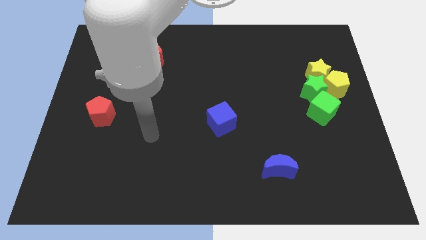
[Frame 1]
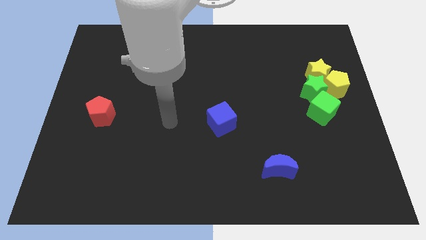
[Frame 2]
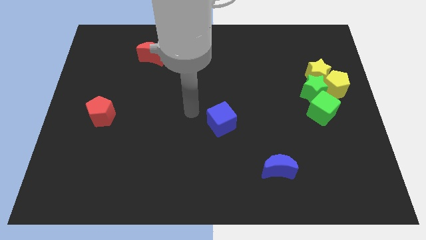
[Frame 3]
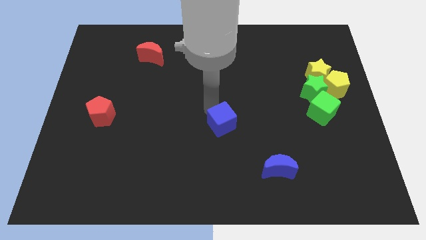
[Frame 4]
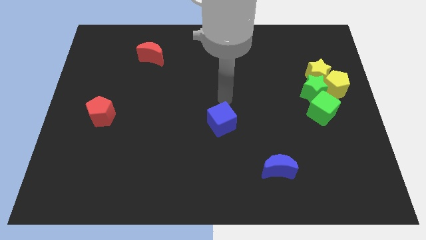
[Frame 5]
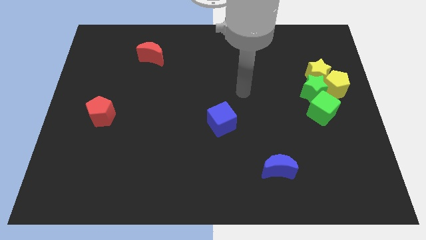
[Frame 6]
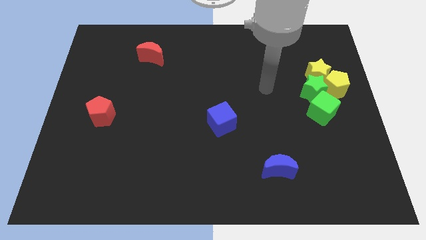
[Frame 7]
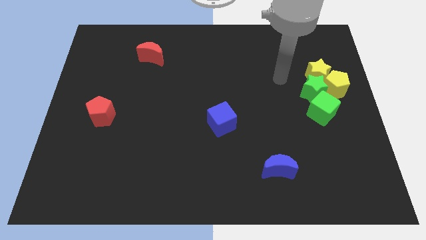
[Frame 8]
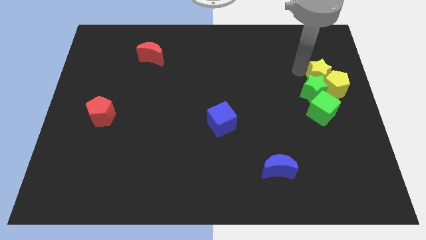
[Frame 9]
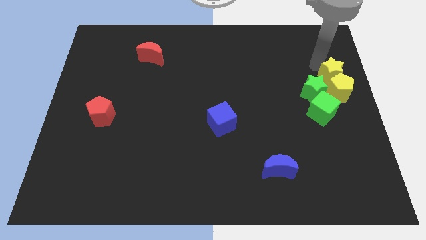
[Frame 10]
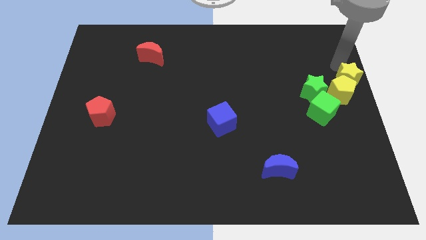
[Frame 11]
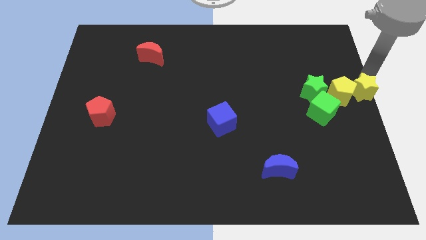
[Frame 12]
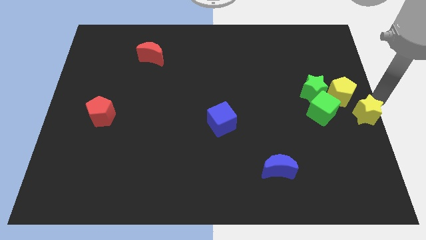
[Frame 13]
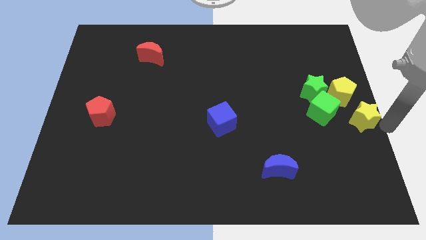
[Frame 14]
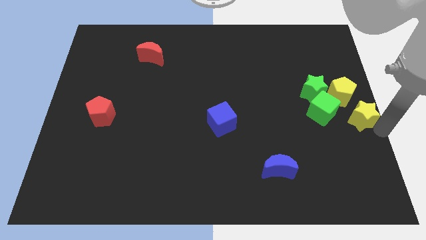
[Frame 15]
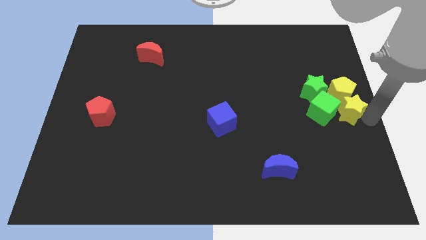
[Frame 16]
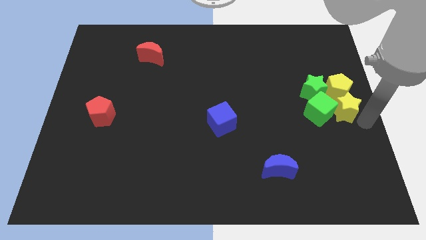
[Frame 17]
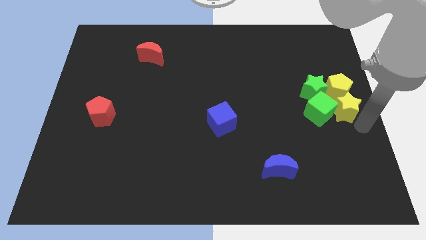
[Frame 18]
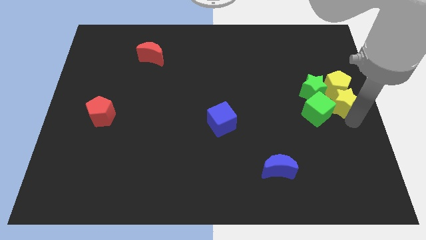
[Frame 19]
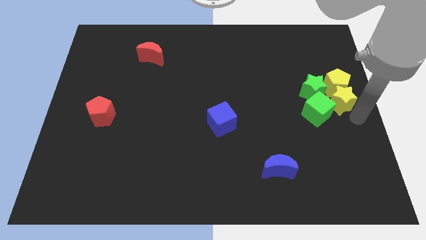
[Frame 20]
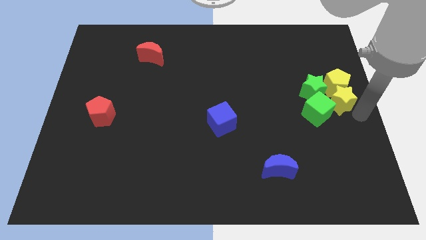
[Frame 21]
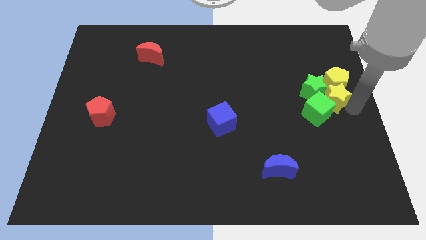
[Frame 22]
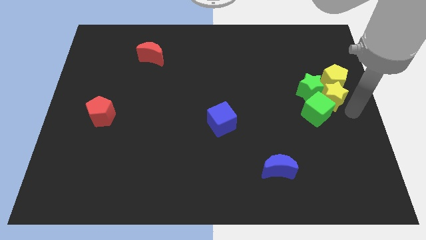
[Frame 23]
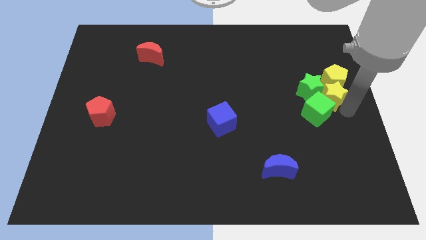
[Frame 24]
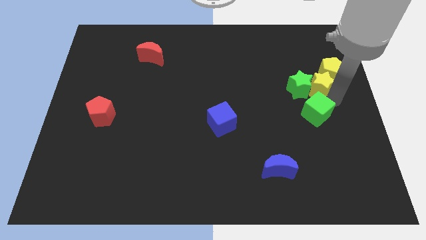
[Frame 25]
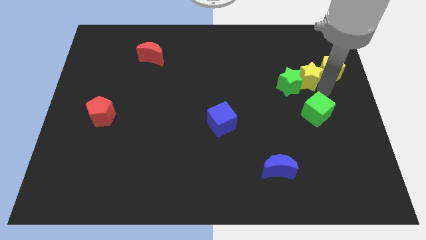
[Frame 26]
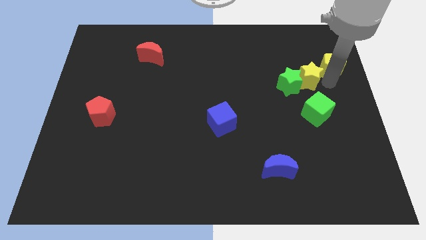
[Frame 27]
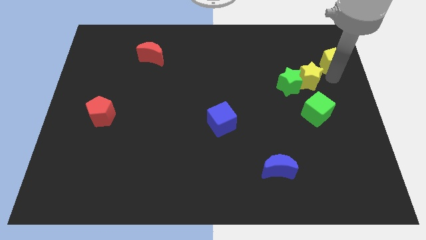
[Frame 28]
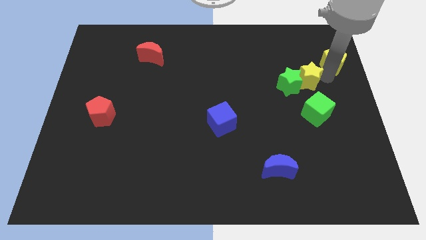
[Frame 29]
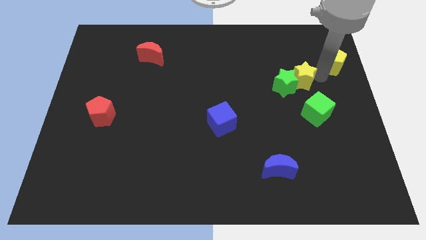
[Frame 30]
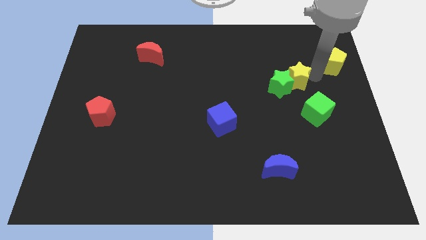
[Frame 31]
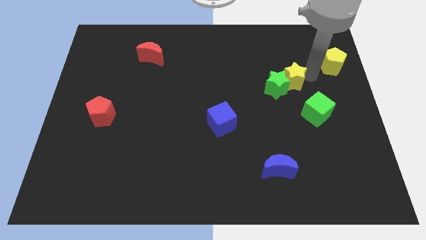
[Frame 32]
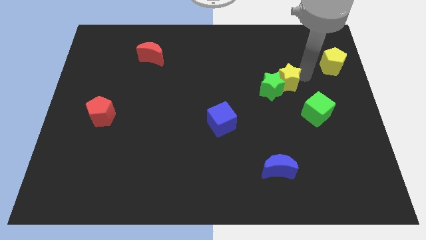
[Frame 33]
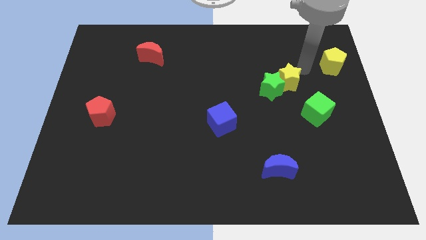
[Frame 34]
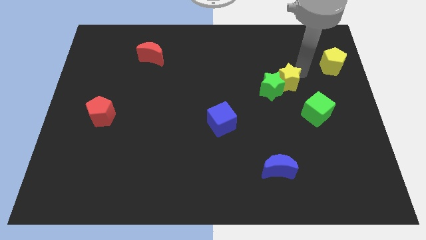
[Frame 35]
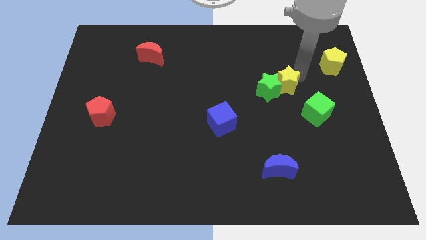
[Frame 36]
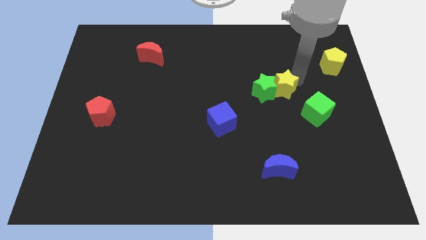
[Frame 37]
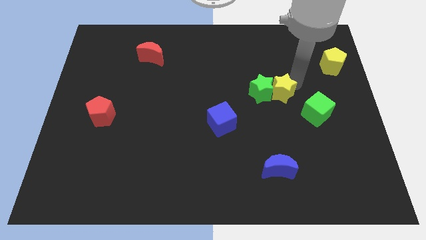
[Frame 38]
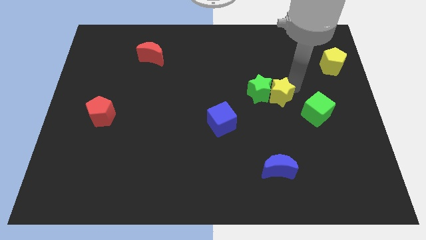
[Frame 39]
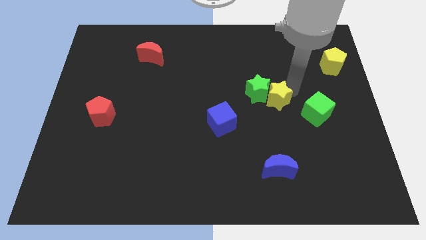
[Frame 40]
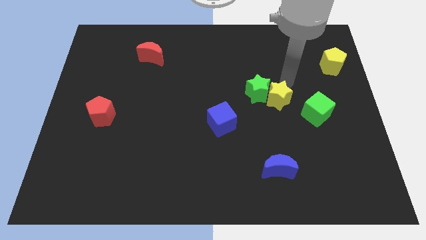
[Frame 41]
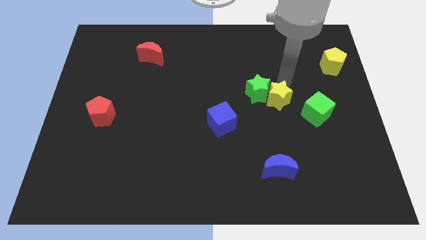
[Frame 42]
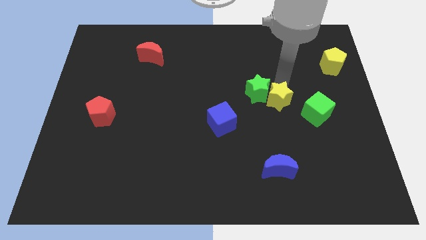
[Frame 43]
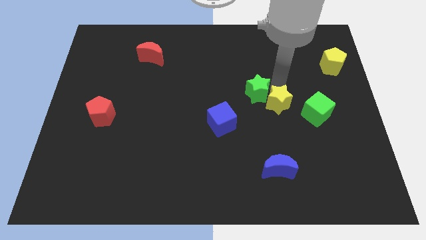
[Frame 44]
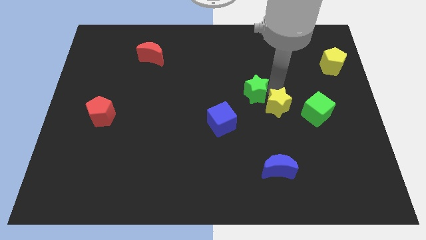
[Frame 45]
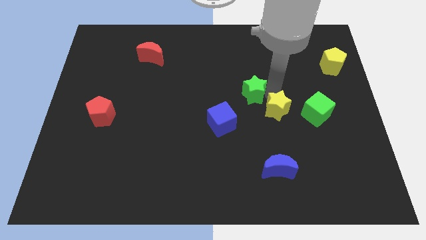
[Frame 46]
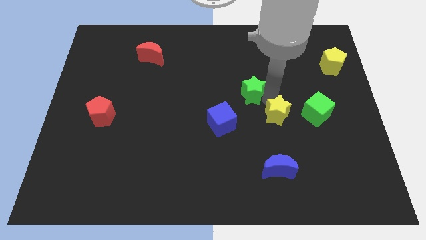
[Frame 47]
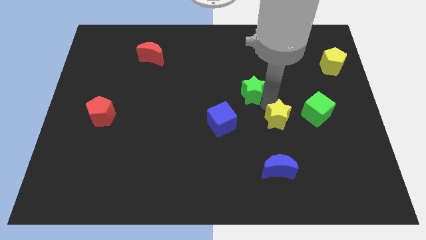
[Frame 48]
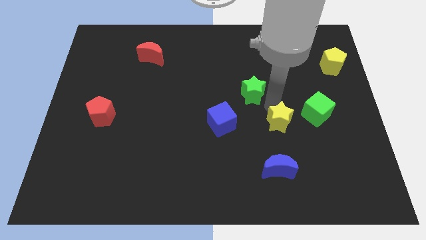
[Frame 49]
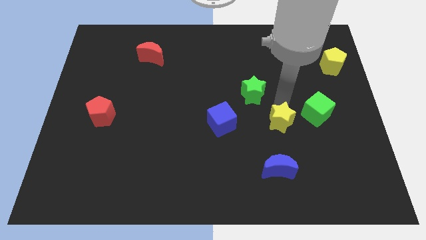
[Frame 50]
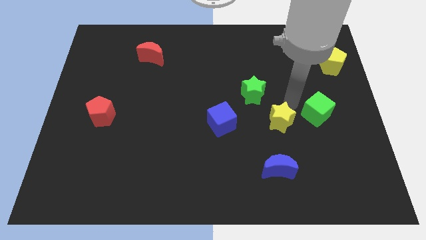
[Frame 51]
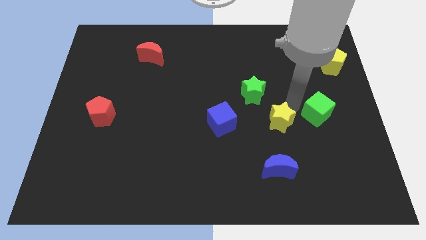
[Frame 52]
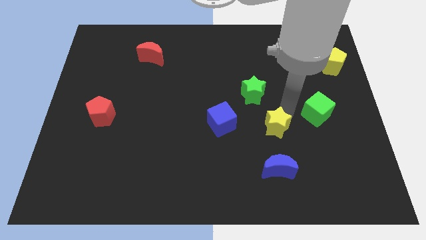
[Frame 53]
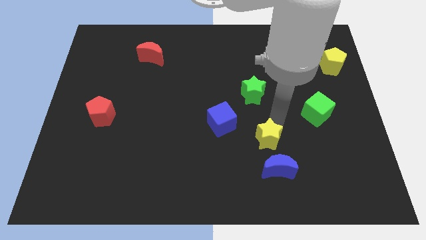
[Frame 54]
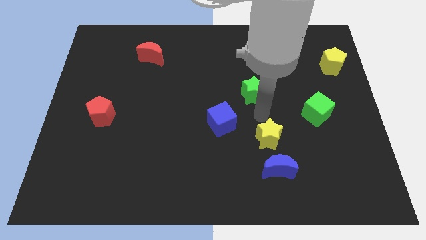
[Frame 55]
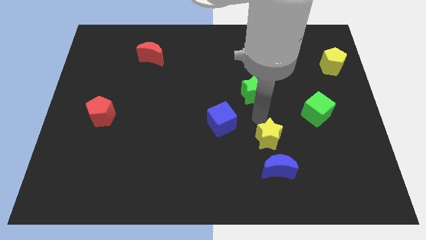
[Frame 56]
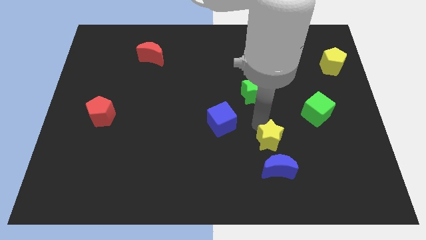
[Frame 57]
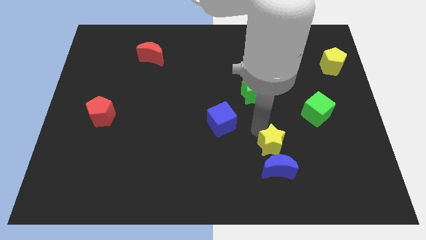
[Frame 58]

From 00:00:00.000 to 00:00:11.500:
move the yellow star close to the blue moon

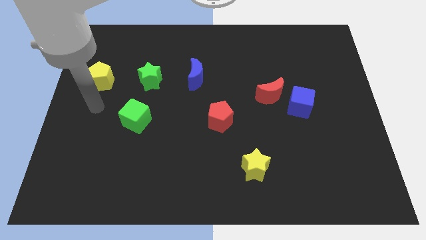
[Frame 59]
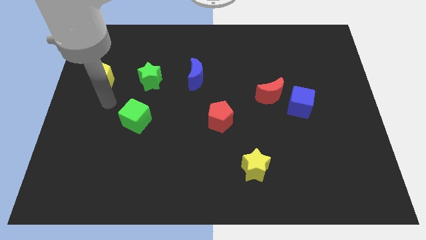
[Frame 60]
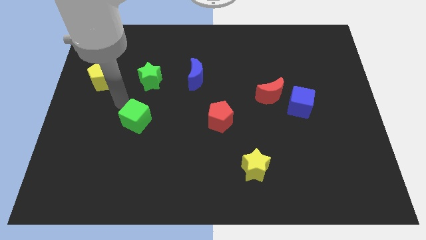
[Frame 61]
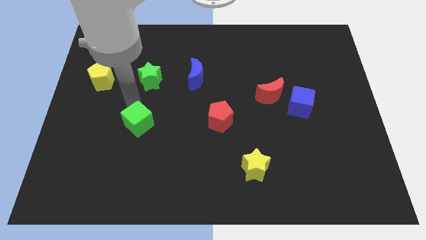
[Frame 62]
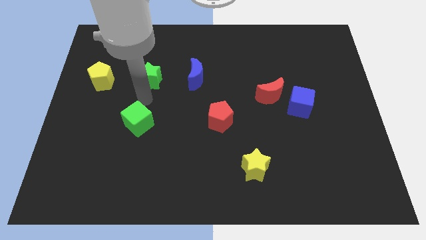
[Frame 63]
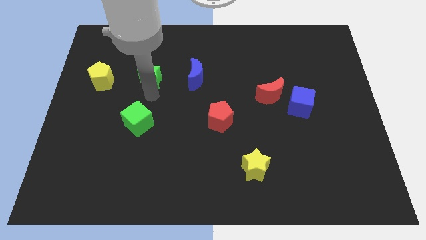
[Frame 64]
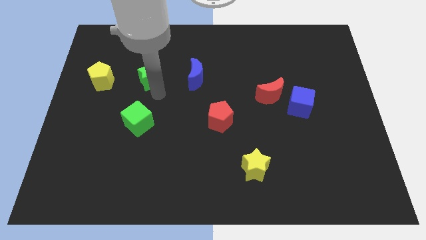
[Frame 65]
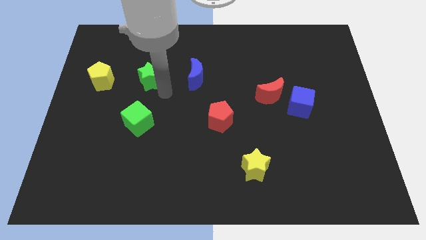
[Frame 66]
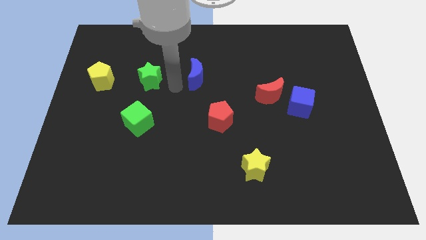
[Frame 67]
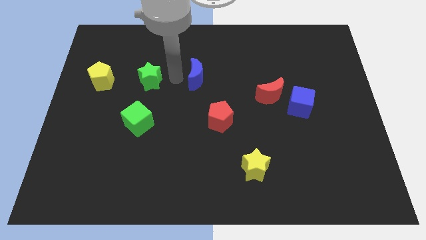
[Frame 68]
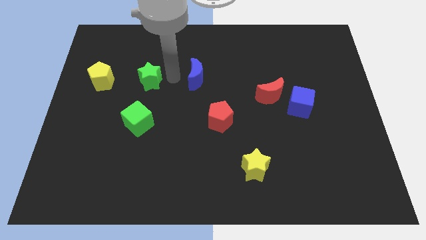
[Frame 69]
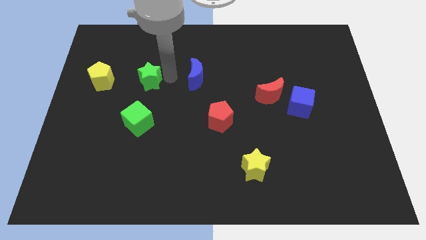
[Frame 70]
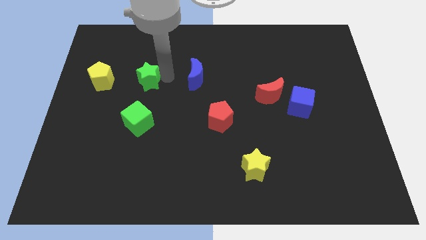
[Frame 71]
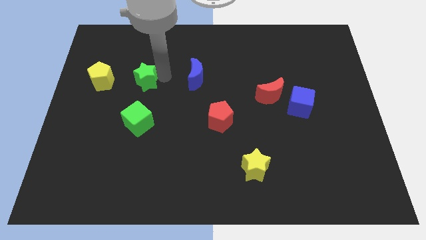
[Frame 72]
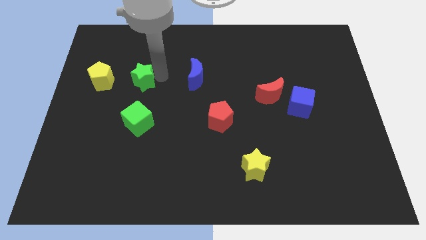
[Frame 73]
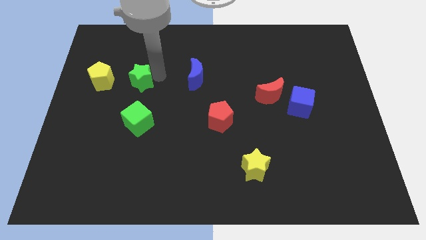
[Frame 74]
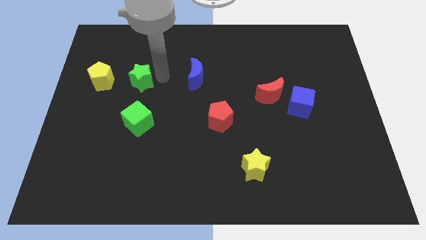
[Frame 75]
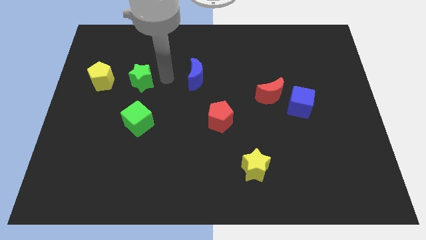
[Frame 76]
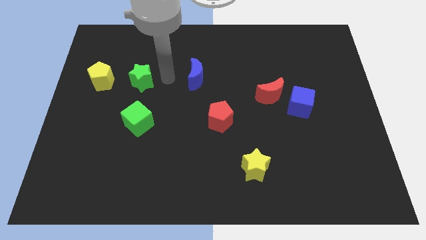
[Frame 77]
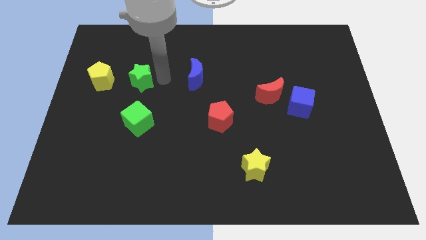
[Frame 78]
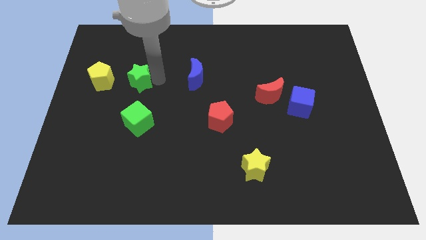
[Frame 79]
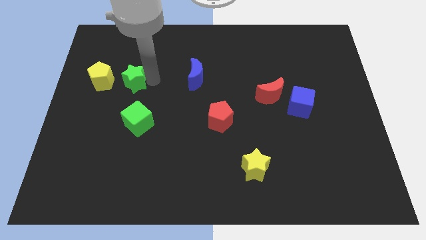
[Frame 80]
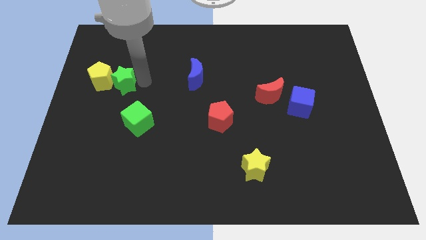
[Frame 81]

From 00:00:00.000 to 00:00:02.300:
move the green star next to the yellow pentagon
